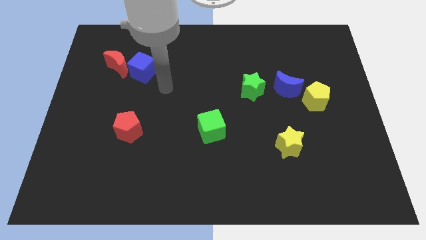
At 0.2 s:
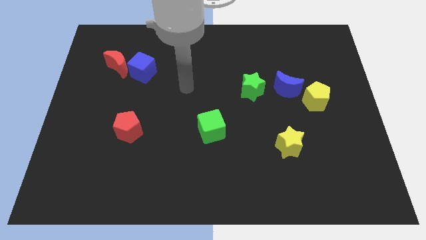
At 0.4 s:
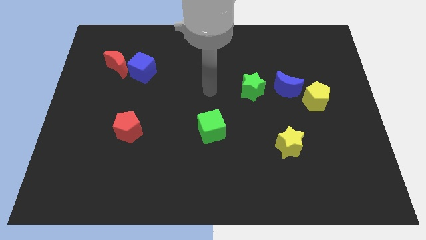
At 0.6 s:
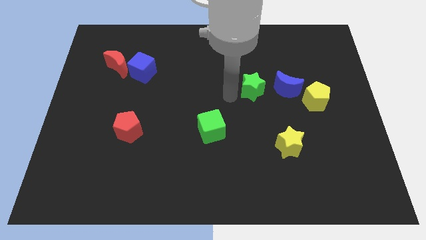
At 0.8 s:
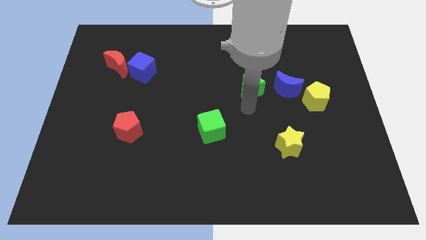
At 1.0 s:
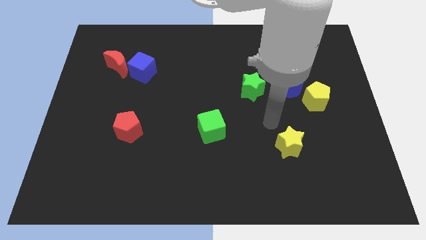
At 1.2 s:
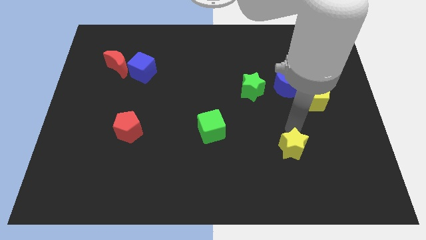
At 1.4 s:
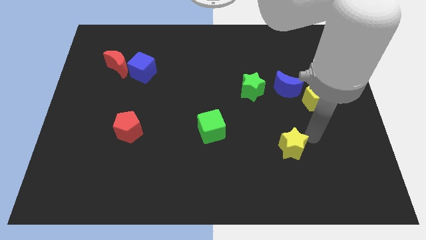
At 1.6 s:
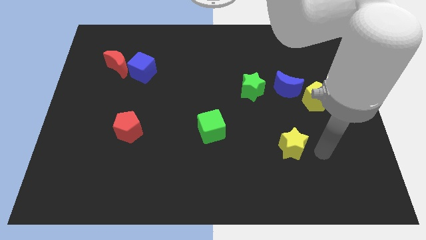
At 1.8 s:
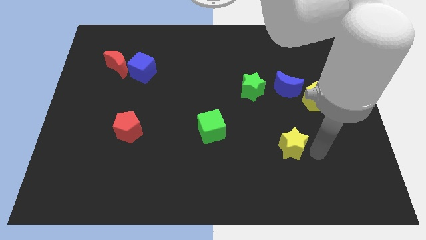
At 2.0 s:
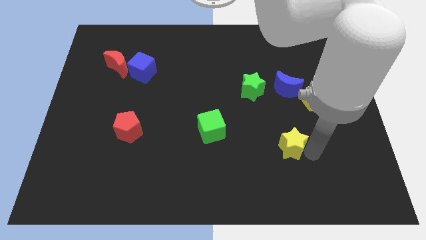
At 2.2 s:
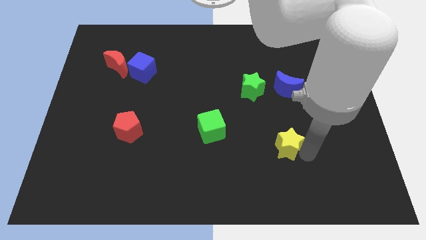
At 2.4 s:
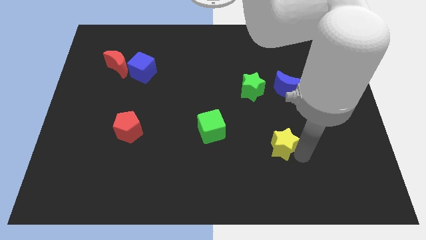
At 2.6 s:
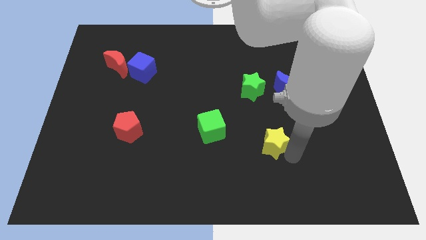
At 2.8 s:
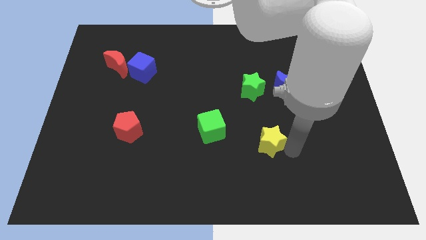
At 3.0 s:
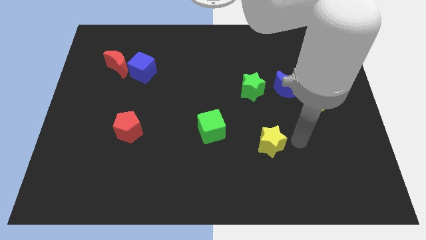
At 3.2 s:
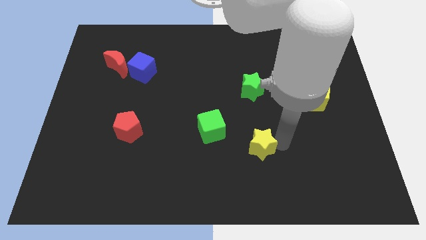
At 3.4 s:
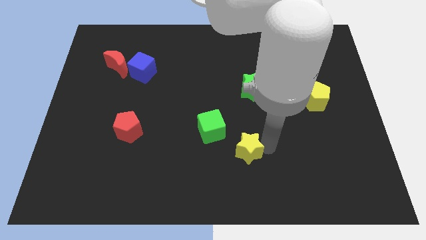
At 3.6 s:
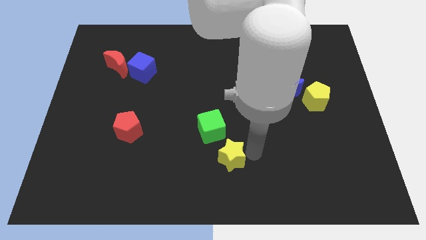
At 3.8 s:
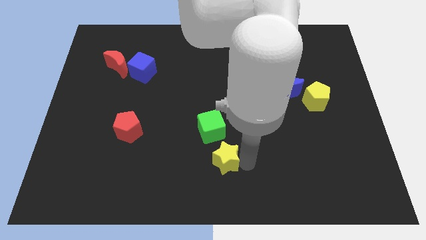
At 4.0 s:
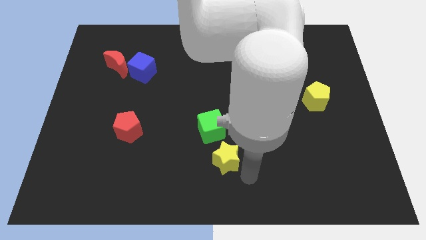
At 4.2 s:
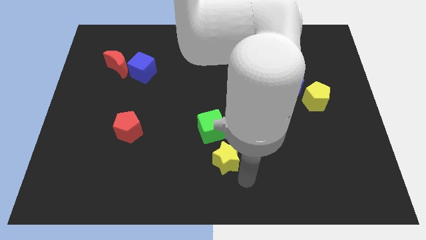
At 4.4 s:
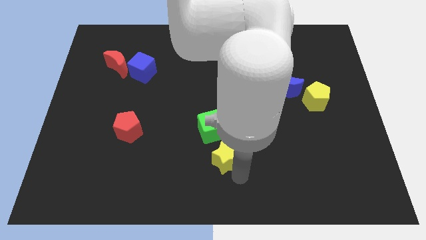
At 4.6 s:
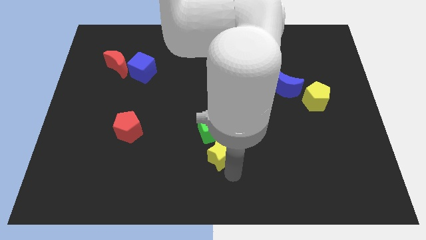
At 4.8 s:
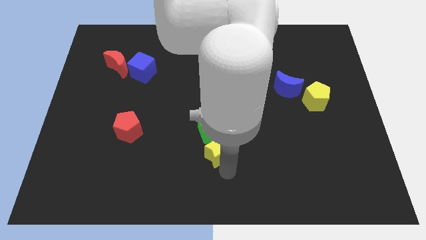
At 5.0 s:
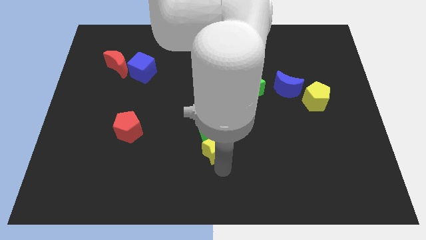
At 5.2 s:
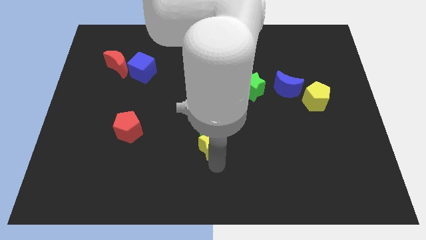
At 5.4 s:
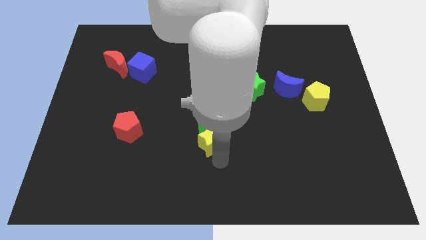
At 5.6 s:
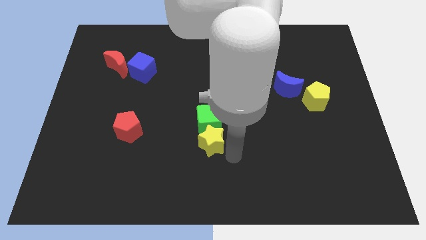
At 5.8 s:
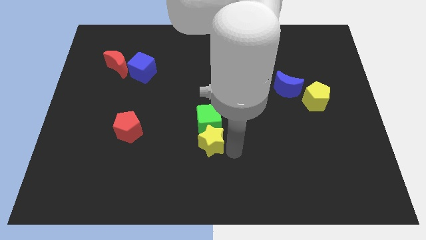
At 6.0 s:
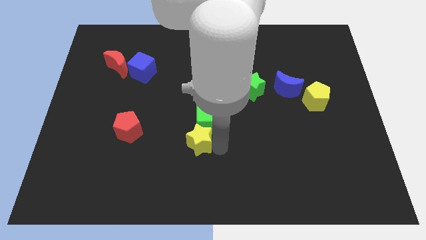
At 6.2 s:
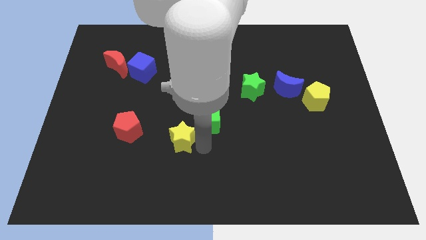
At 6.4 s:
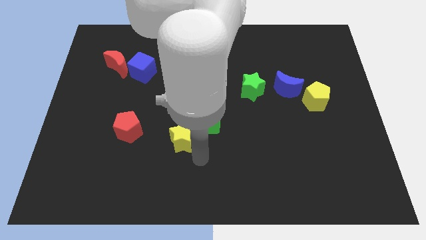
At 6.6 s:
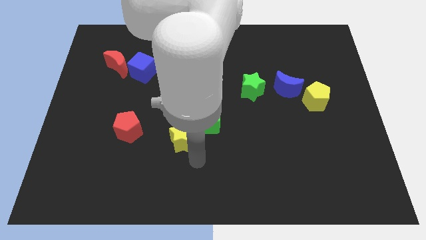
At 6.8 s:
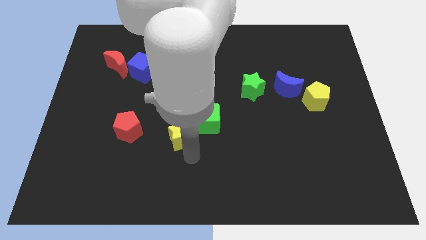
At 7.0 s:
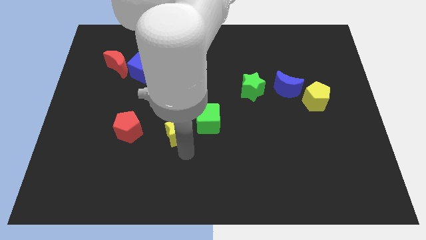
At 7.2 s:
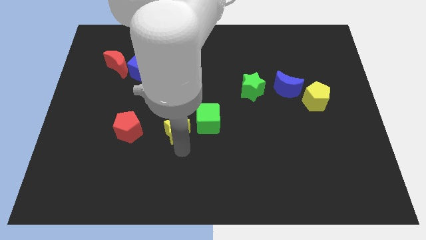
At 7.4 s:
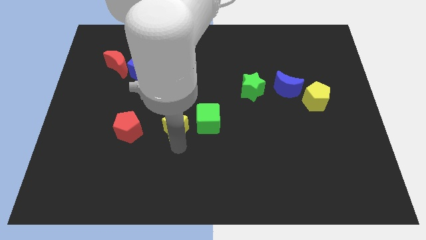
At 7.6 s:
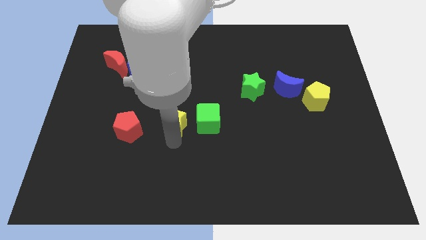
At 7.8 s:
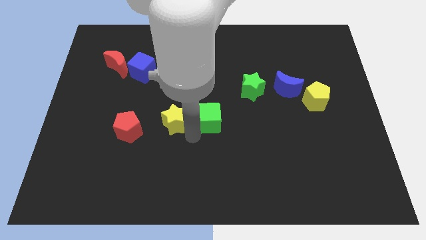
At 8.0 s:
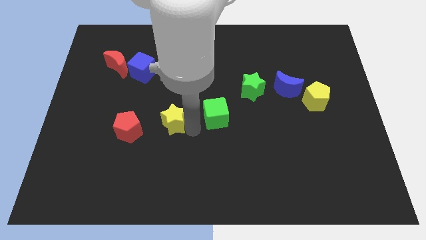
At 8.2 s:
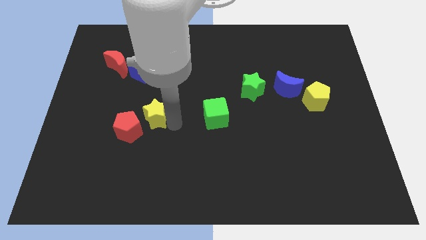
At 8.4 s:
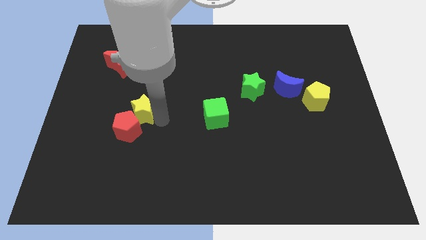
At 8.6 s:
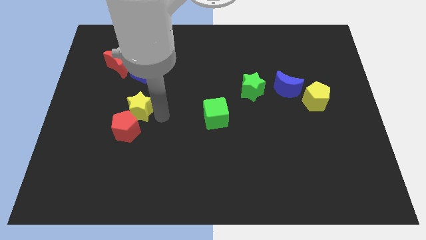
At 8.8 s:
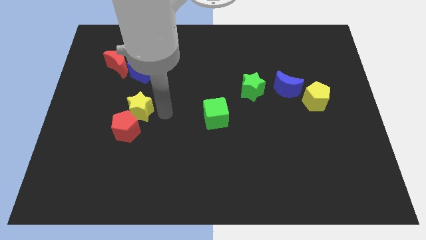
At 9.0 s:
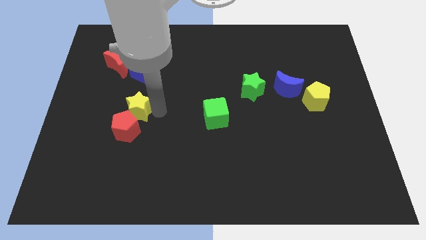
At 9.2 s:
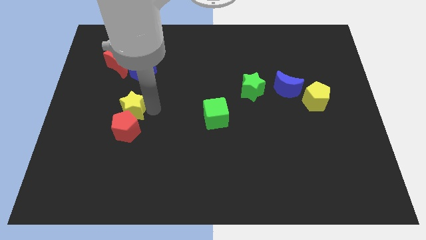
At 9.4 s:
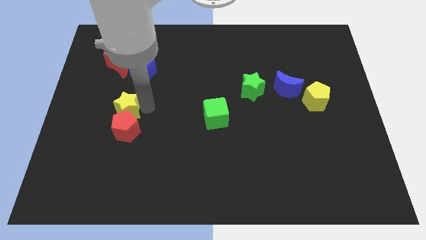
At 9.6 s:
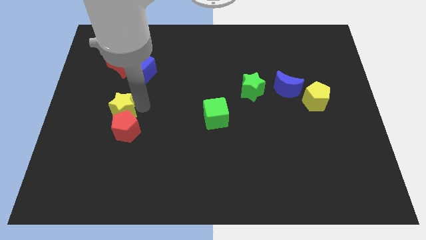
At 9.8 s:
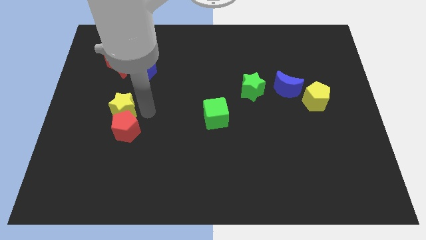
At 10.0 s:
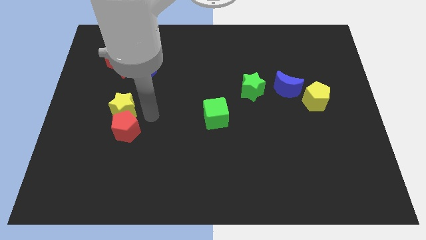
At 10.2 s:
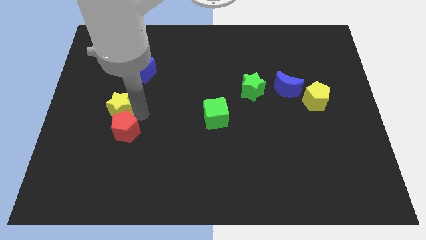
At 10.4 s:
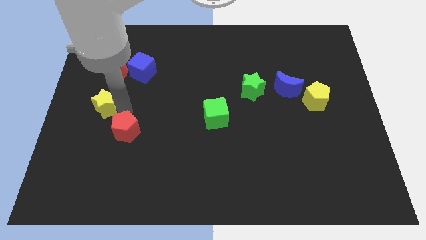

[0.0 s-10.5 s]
put the yellow star to the center left

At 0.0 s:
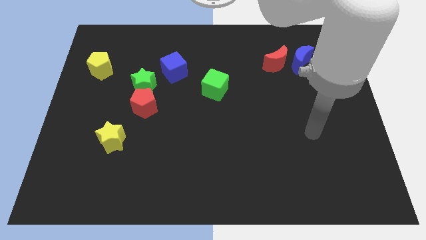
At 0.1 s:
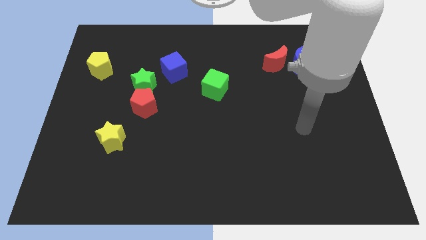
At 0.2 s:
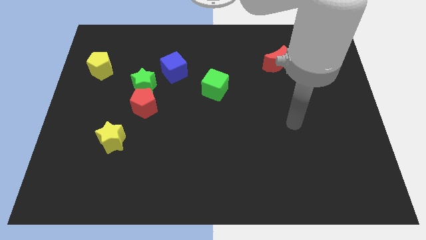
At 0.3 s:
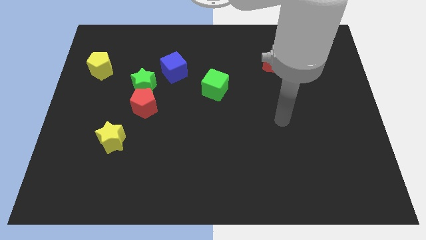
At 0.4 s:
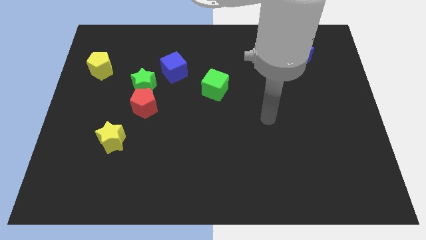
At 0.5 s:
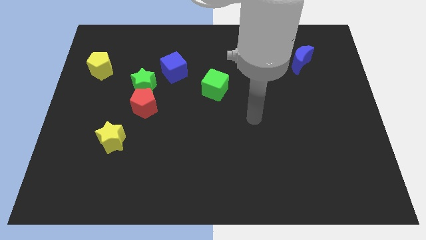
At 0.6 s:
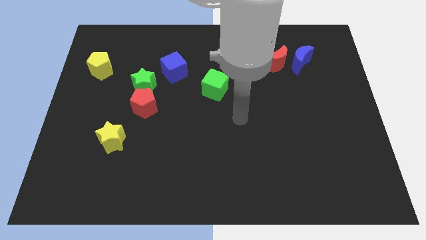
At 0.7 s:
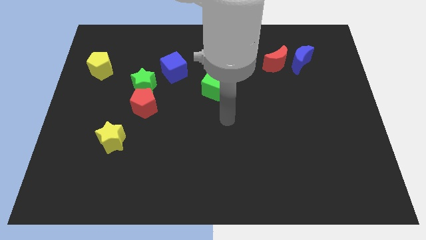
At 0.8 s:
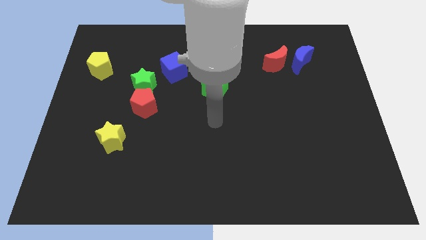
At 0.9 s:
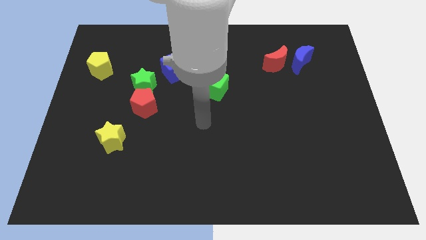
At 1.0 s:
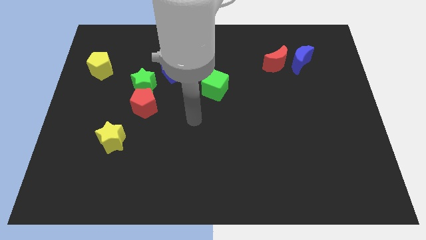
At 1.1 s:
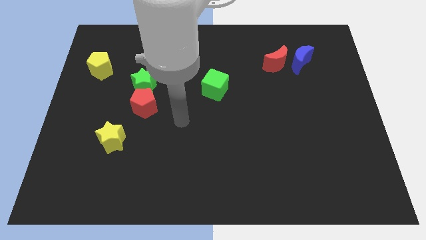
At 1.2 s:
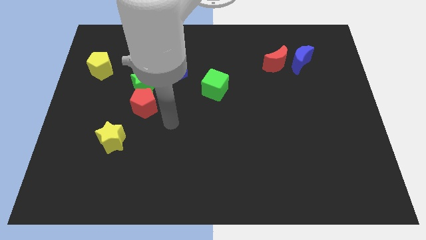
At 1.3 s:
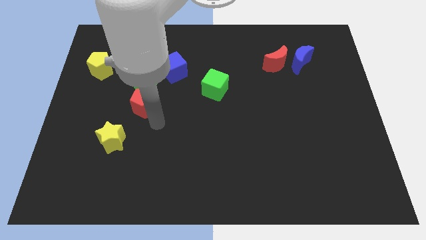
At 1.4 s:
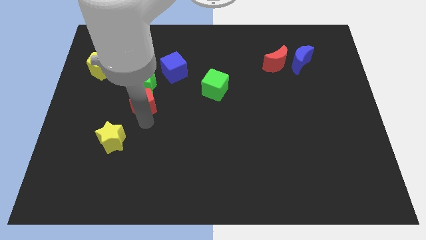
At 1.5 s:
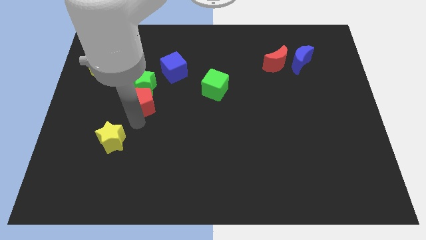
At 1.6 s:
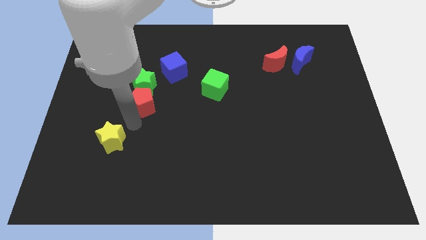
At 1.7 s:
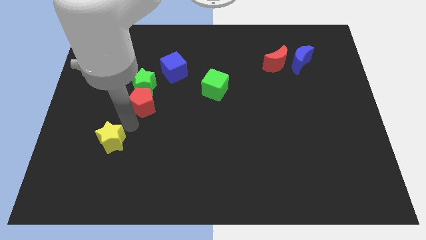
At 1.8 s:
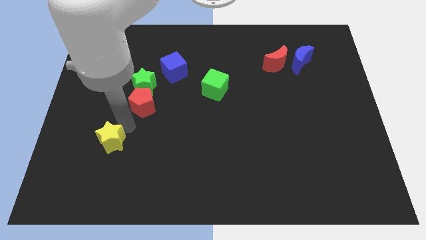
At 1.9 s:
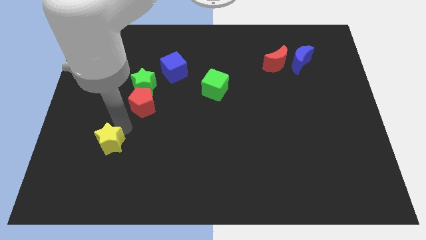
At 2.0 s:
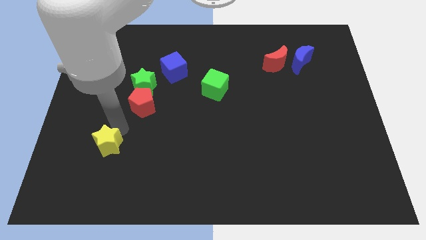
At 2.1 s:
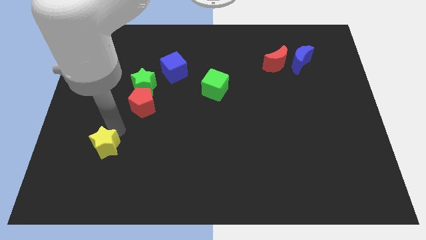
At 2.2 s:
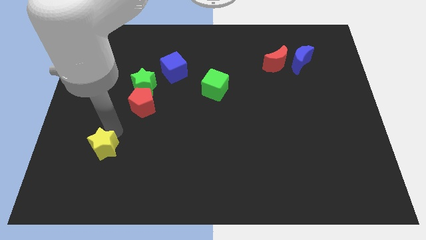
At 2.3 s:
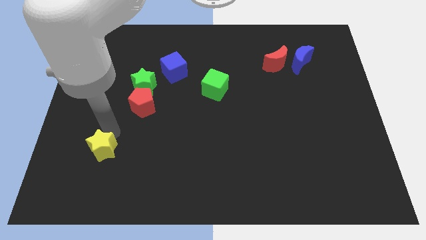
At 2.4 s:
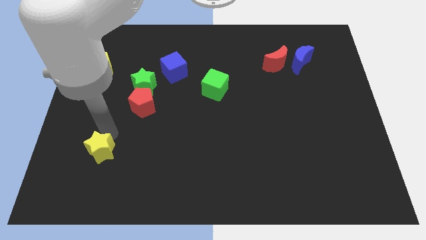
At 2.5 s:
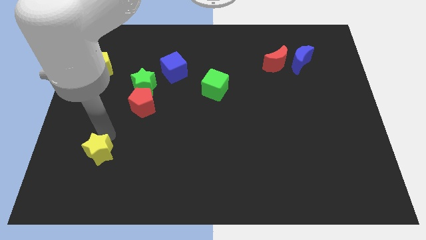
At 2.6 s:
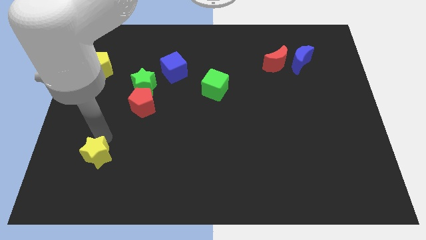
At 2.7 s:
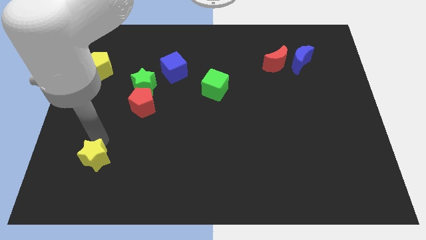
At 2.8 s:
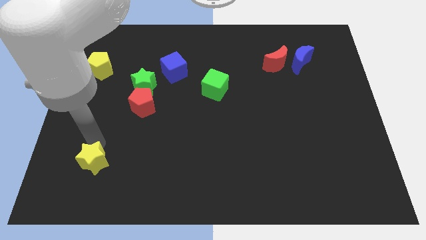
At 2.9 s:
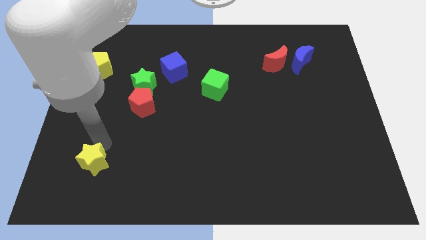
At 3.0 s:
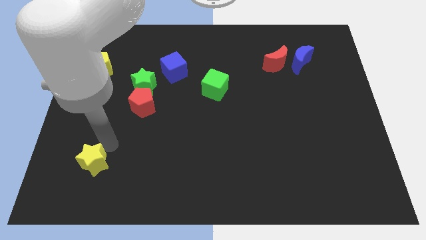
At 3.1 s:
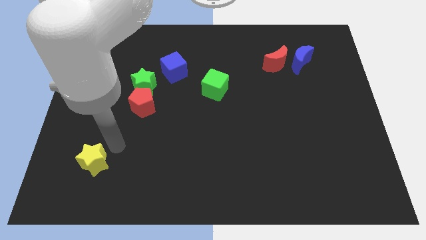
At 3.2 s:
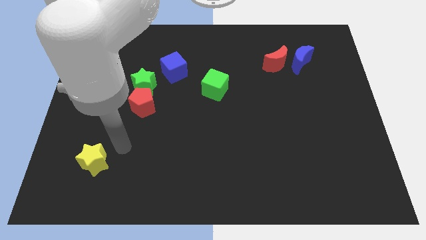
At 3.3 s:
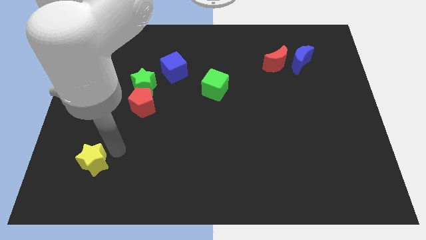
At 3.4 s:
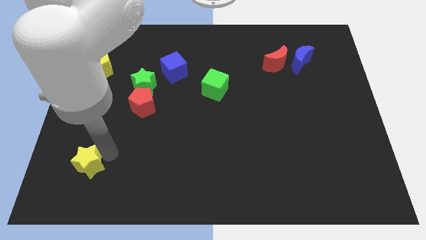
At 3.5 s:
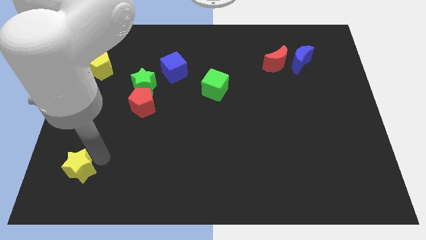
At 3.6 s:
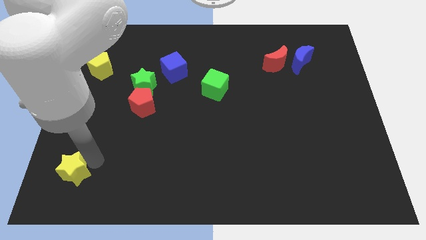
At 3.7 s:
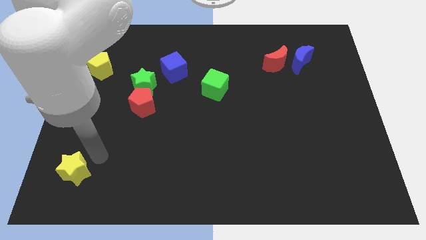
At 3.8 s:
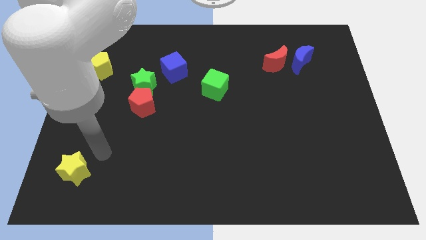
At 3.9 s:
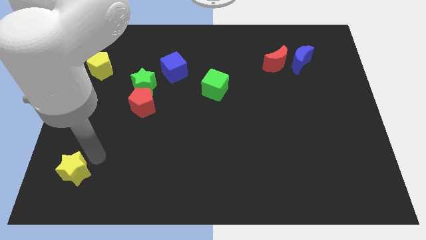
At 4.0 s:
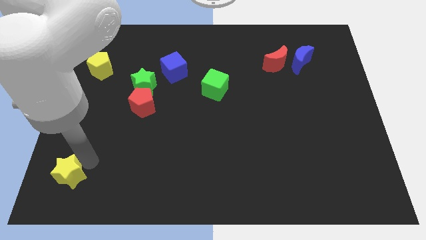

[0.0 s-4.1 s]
put the yellow star to the bottom left of the board
